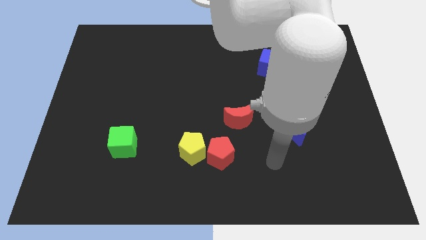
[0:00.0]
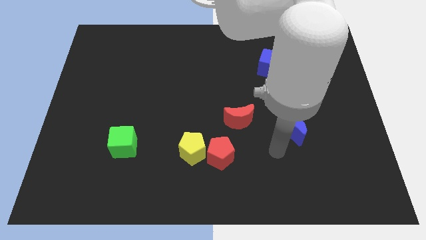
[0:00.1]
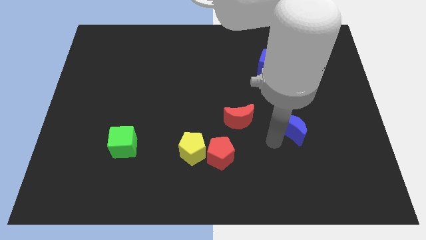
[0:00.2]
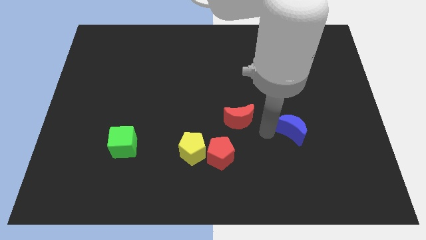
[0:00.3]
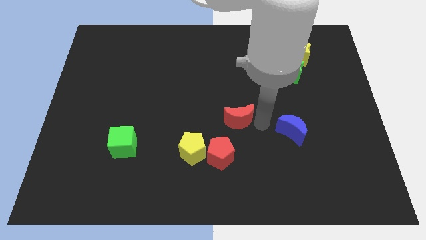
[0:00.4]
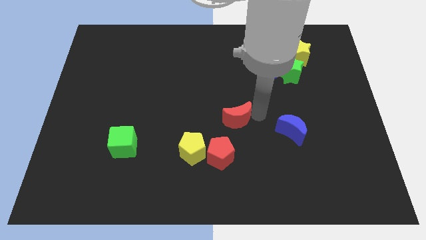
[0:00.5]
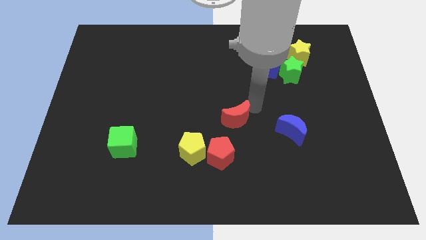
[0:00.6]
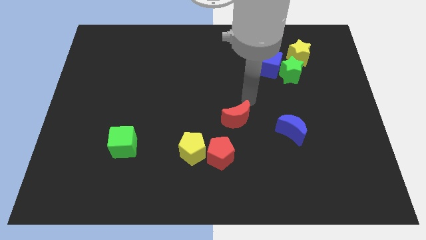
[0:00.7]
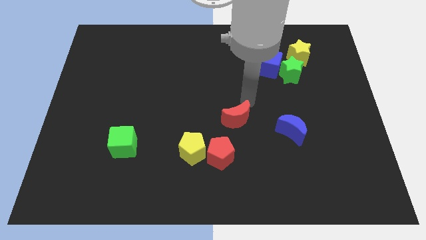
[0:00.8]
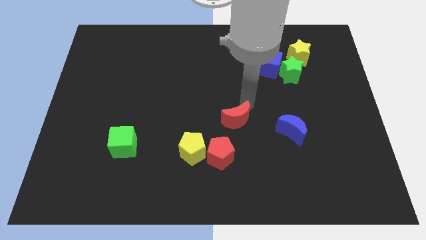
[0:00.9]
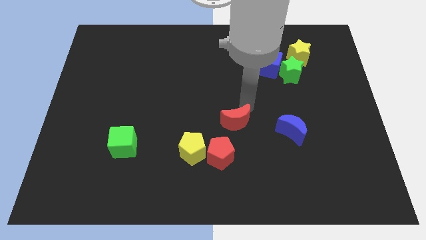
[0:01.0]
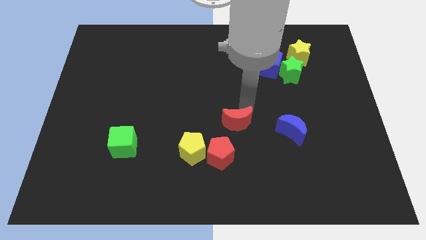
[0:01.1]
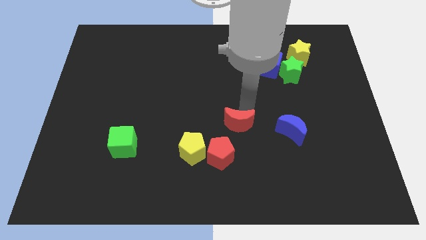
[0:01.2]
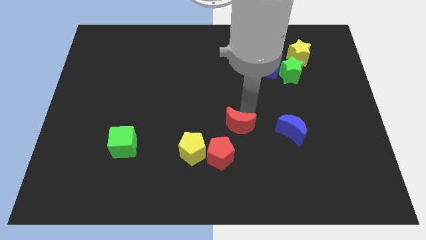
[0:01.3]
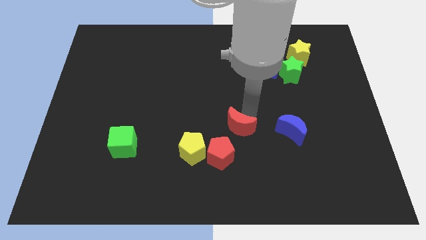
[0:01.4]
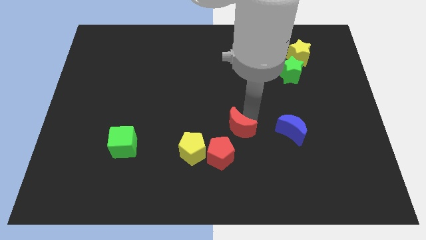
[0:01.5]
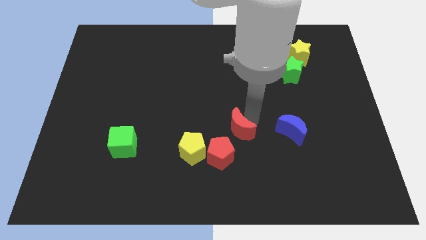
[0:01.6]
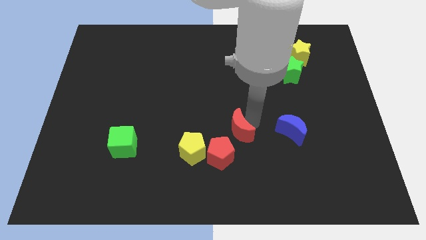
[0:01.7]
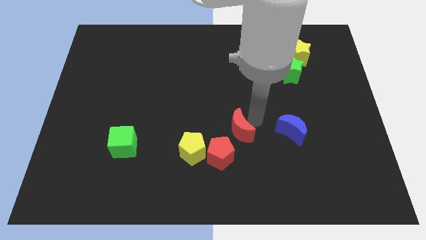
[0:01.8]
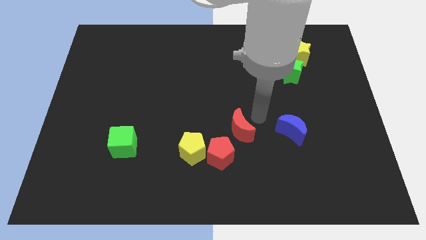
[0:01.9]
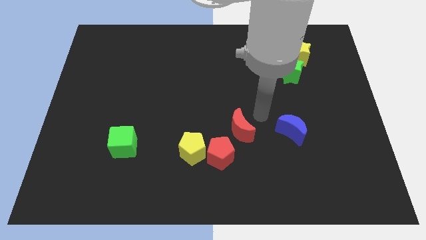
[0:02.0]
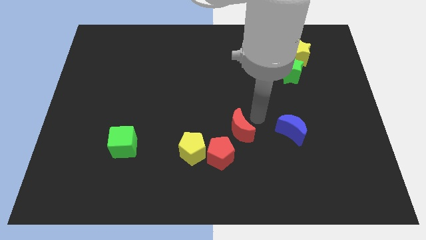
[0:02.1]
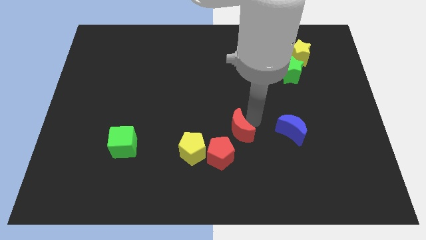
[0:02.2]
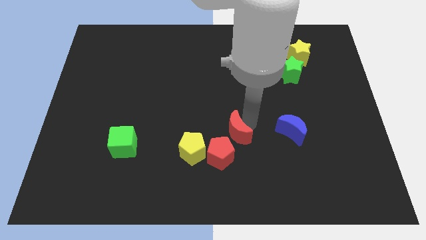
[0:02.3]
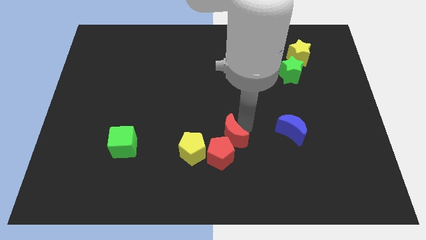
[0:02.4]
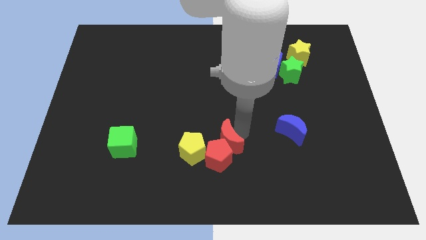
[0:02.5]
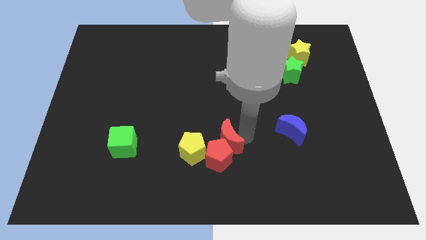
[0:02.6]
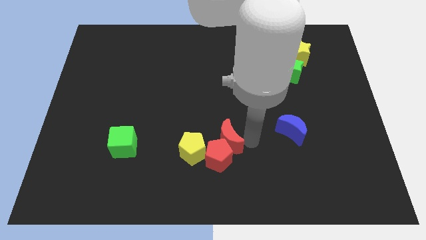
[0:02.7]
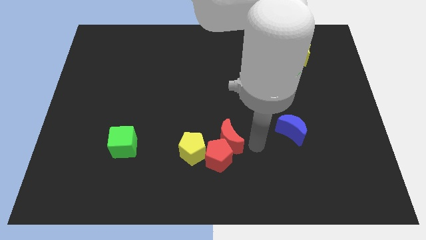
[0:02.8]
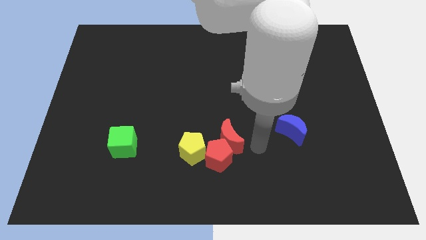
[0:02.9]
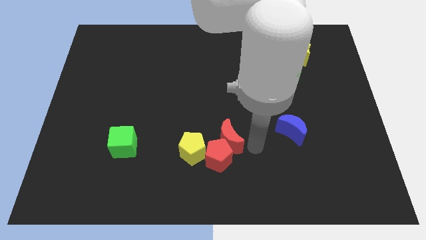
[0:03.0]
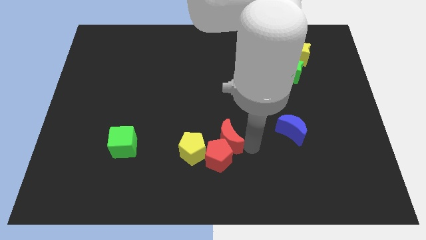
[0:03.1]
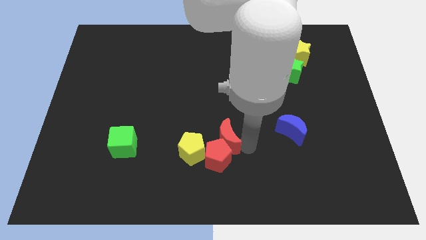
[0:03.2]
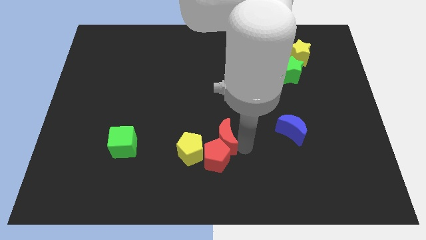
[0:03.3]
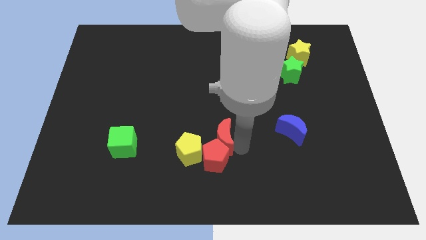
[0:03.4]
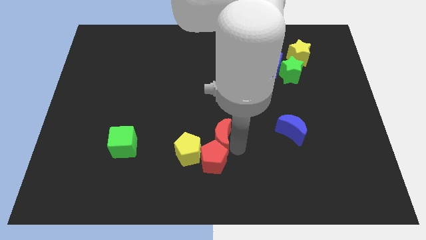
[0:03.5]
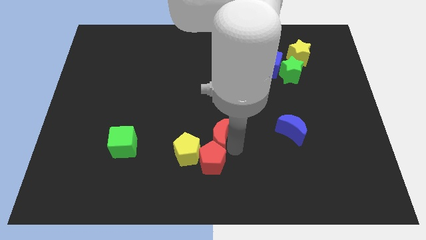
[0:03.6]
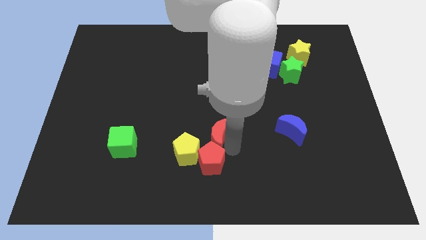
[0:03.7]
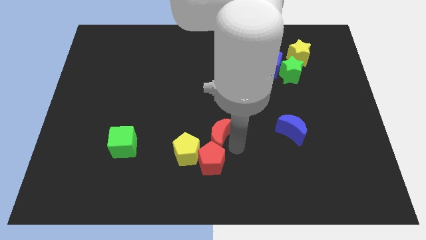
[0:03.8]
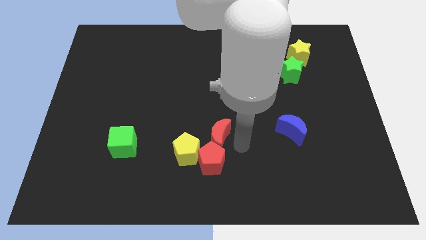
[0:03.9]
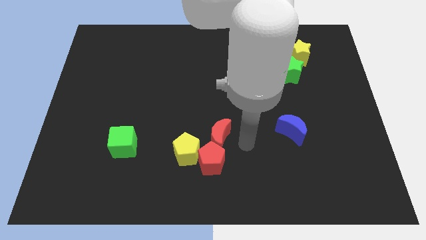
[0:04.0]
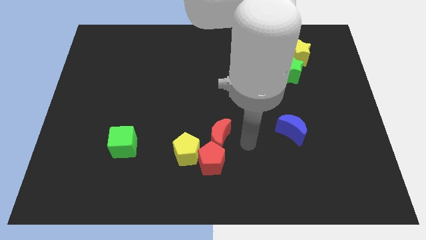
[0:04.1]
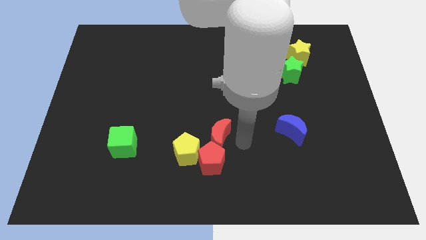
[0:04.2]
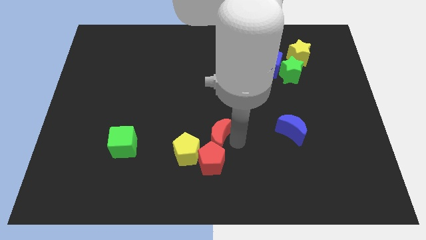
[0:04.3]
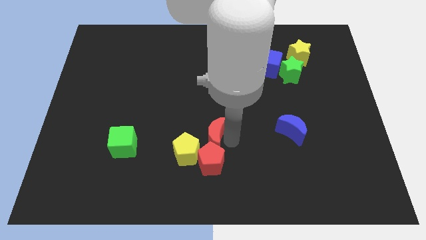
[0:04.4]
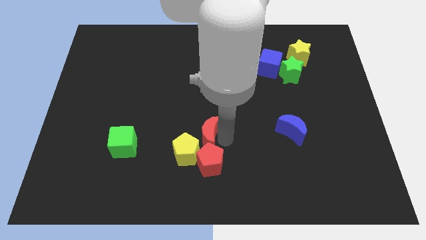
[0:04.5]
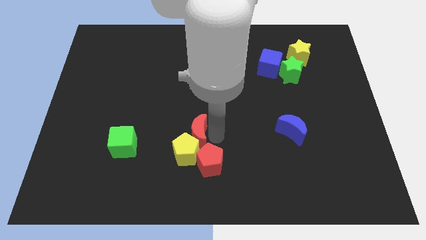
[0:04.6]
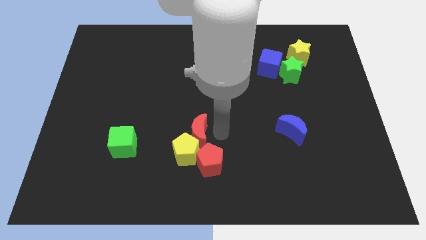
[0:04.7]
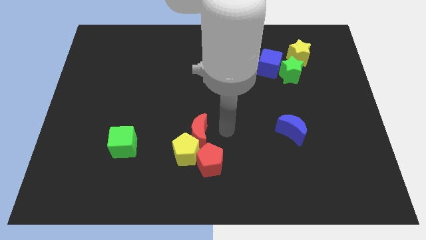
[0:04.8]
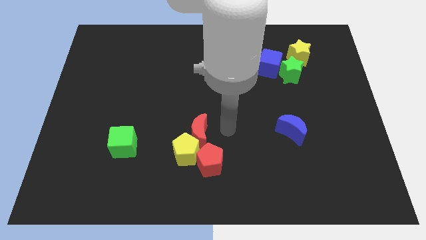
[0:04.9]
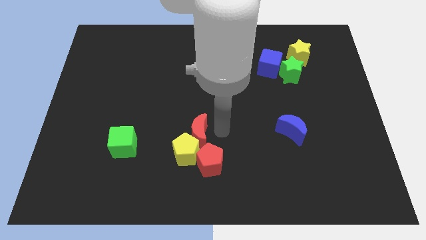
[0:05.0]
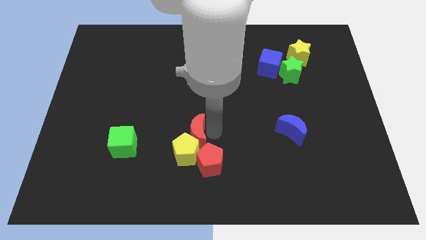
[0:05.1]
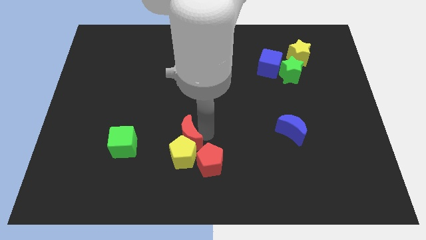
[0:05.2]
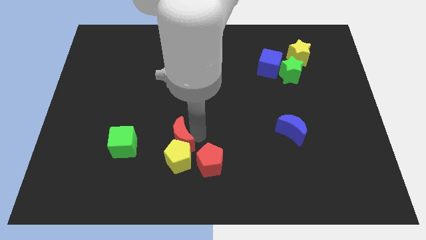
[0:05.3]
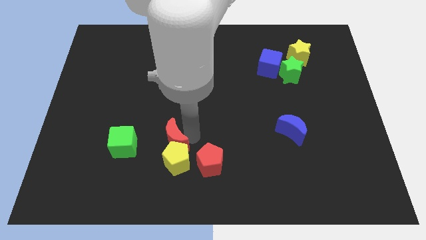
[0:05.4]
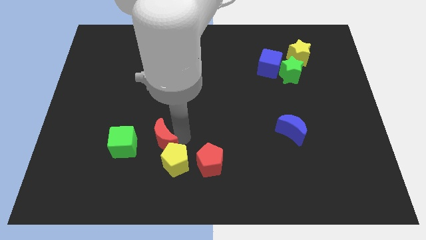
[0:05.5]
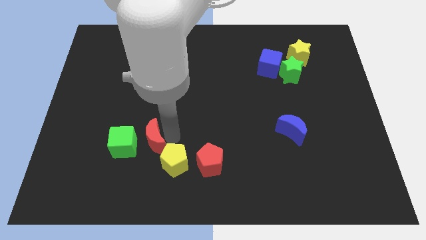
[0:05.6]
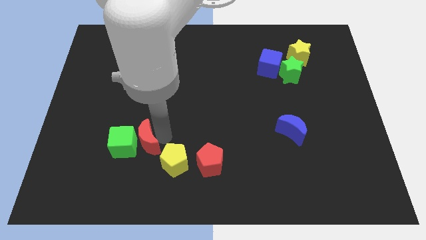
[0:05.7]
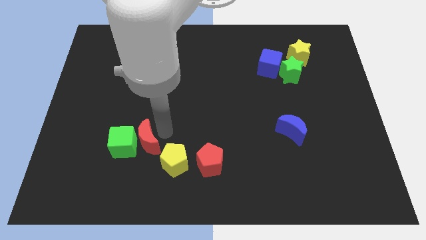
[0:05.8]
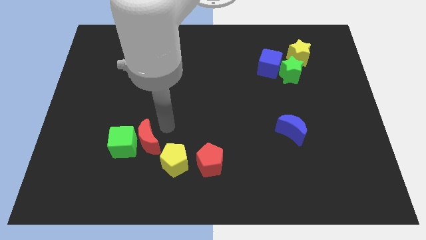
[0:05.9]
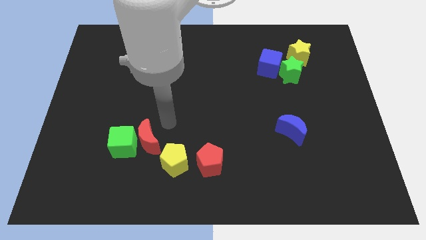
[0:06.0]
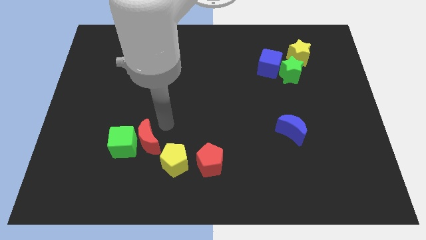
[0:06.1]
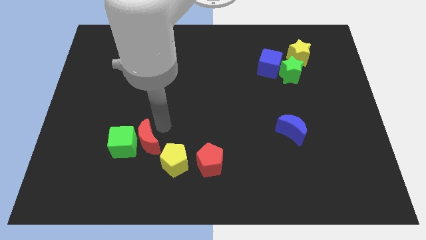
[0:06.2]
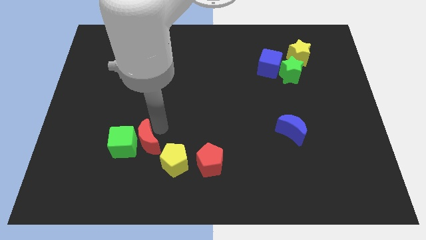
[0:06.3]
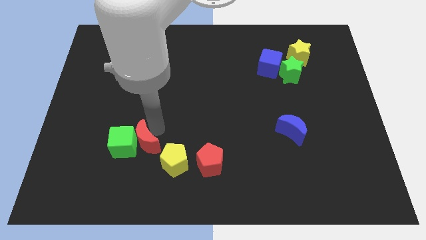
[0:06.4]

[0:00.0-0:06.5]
slide the red moon to the left of the yellow pentagon
